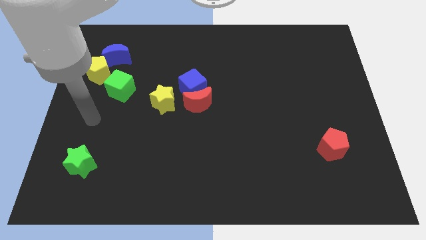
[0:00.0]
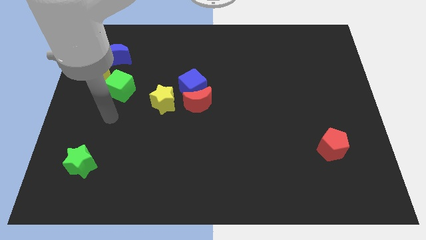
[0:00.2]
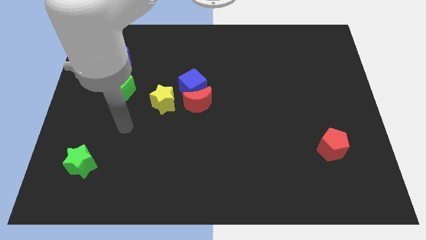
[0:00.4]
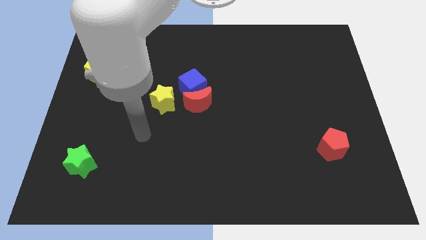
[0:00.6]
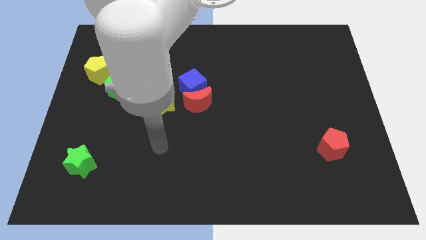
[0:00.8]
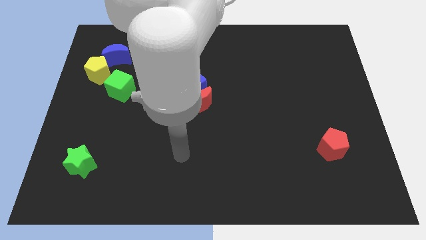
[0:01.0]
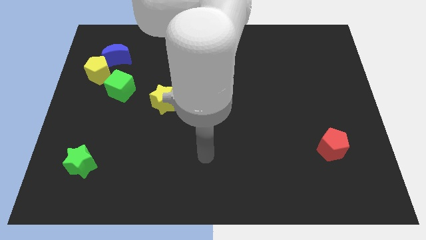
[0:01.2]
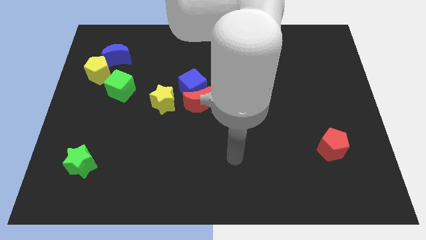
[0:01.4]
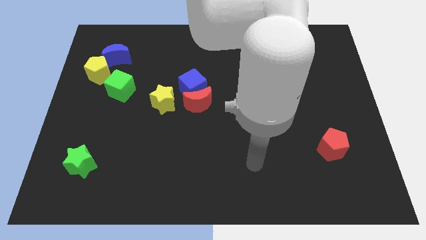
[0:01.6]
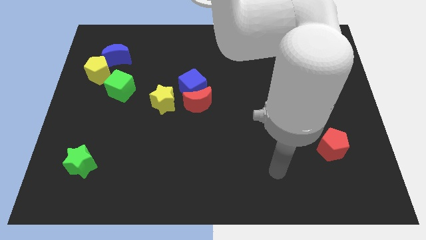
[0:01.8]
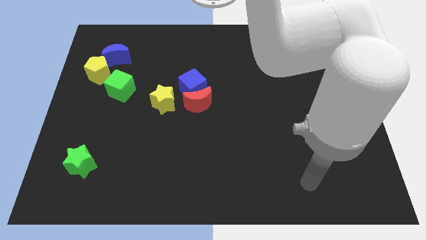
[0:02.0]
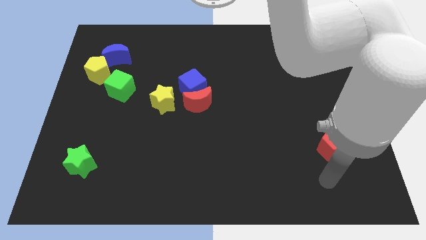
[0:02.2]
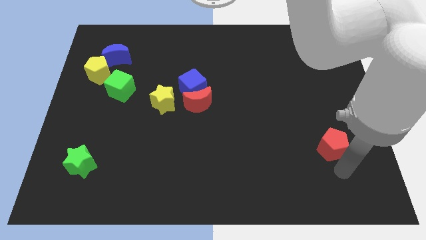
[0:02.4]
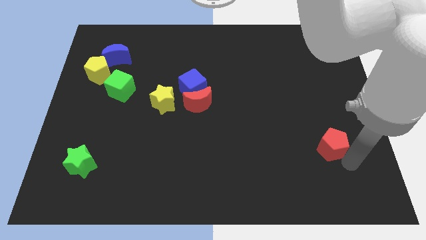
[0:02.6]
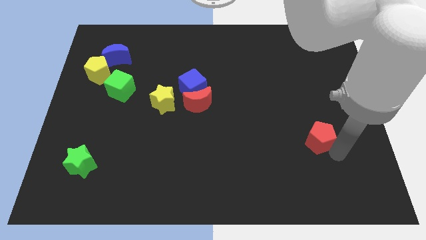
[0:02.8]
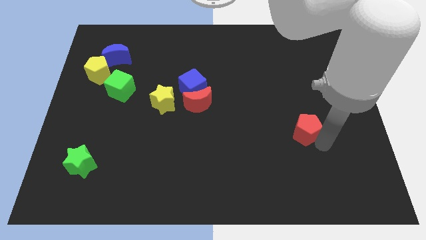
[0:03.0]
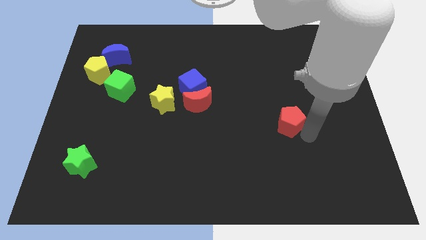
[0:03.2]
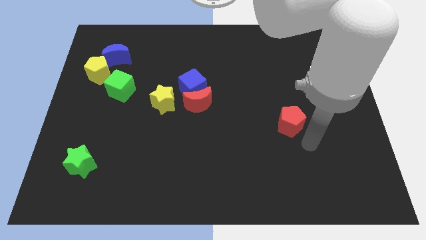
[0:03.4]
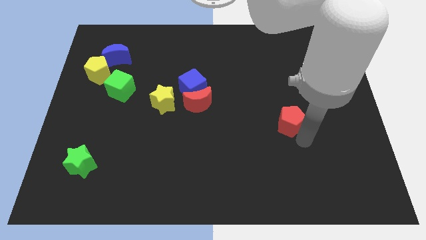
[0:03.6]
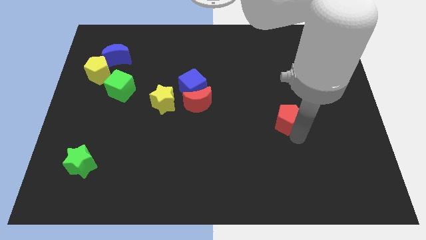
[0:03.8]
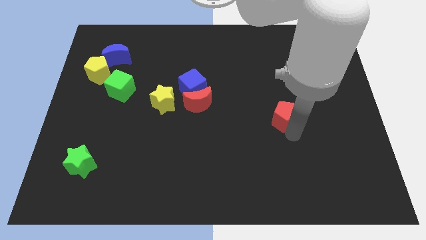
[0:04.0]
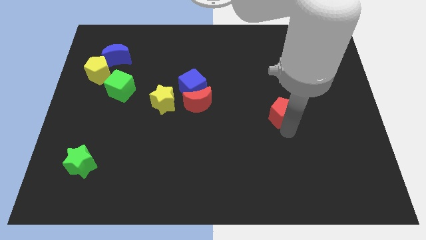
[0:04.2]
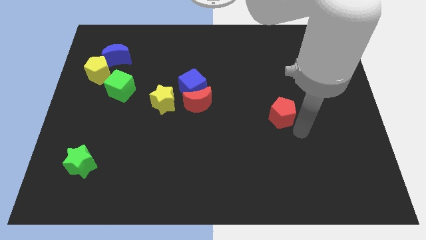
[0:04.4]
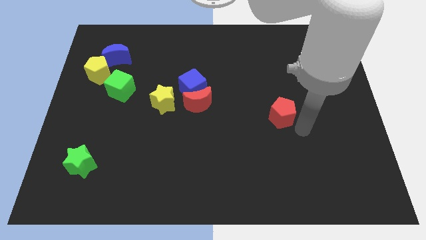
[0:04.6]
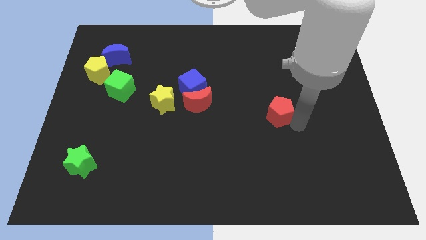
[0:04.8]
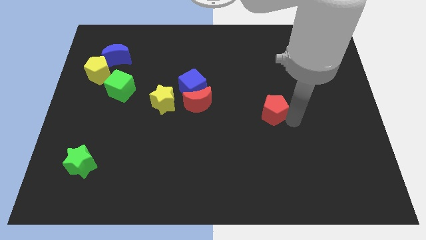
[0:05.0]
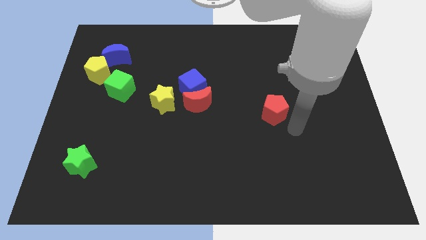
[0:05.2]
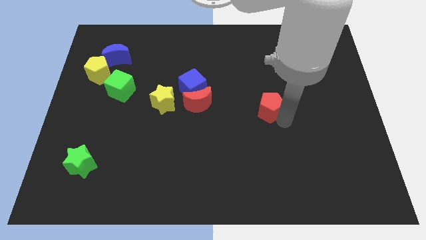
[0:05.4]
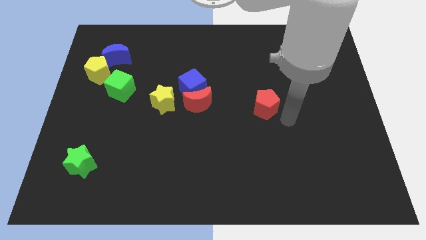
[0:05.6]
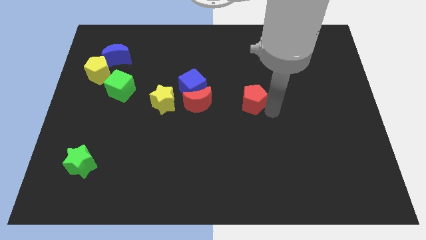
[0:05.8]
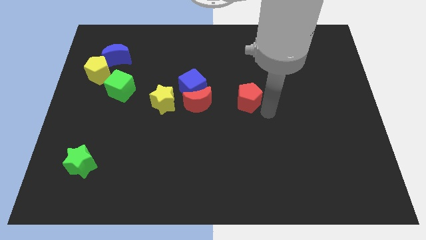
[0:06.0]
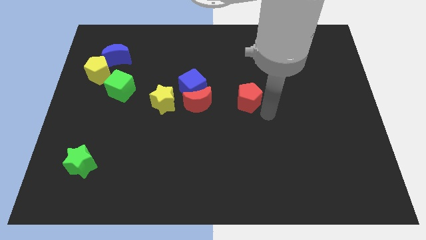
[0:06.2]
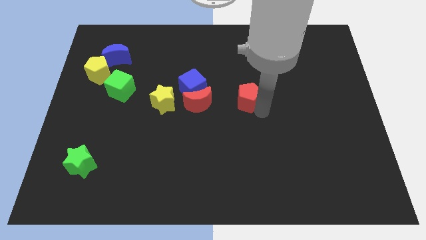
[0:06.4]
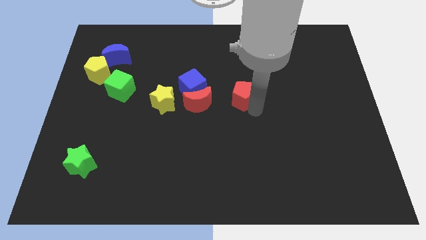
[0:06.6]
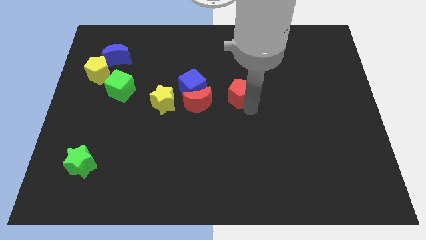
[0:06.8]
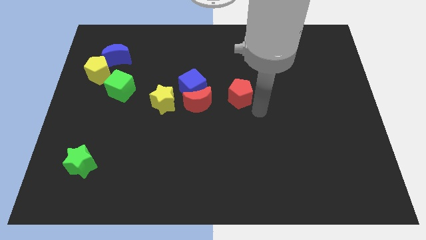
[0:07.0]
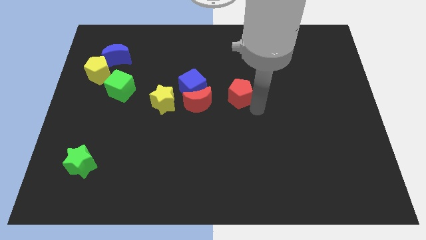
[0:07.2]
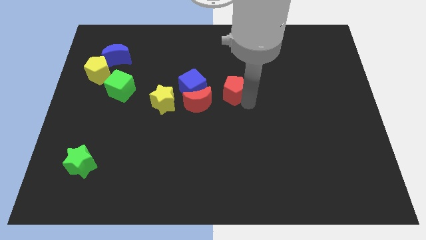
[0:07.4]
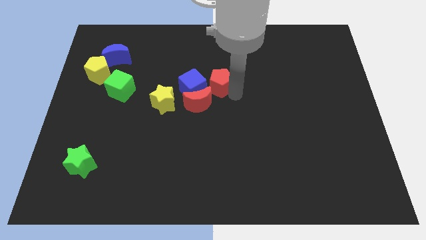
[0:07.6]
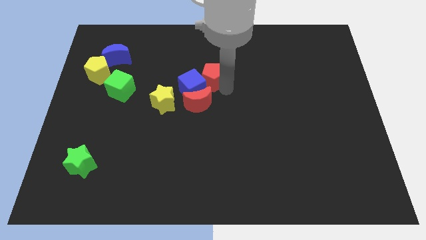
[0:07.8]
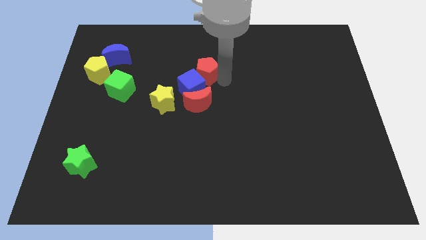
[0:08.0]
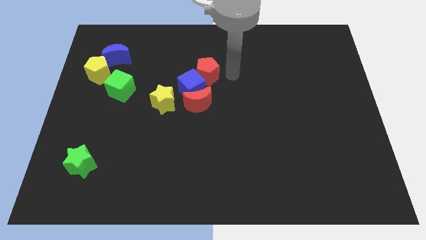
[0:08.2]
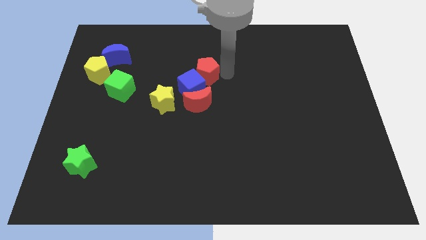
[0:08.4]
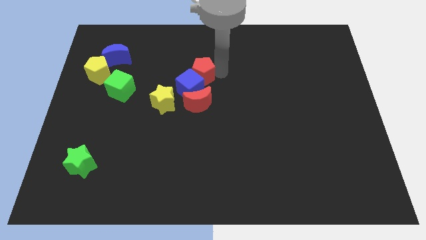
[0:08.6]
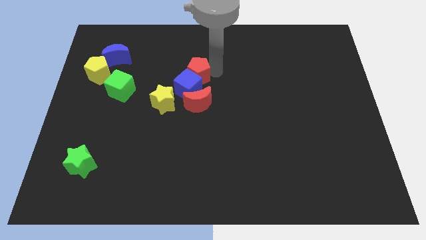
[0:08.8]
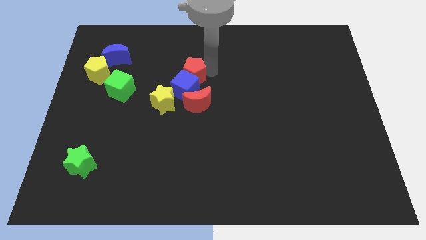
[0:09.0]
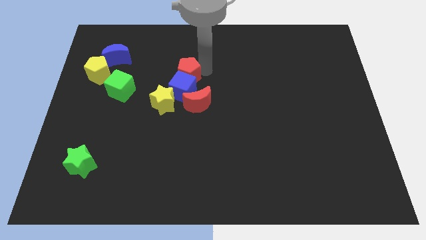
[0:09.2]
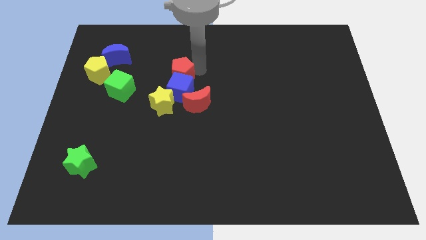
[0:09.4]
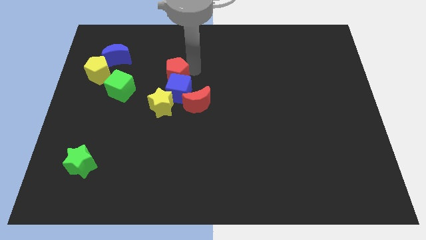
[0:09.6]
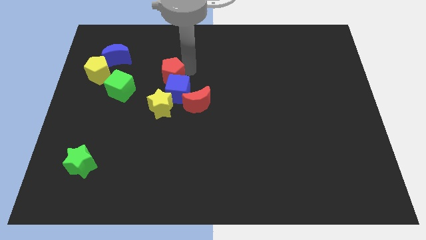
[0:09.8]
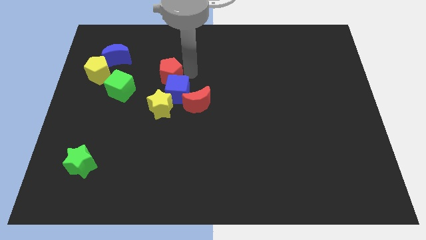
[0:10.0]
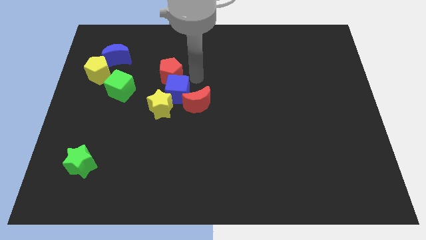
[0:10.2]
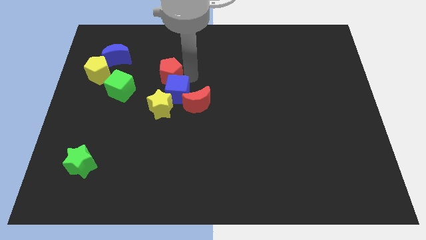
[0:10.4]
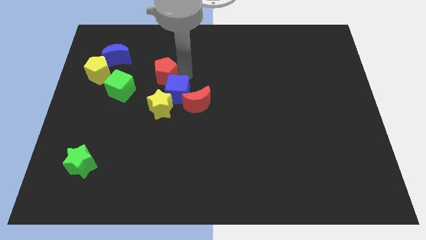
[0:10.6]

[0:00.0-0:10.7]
put the red pentagon to the top right of the green cube

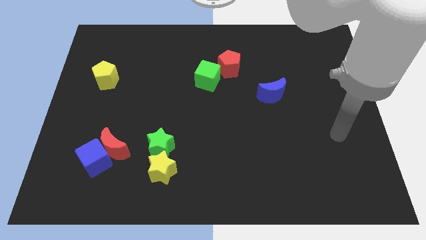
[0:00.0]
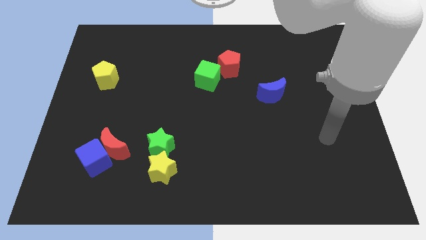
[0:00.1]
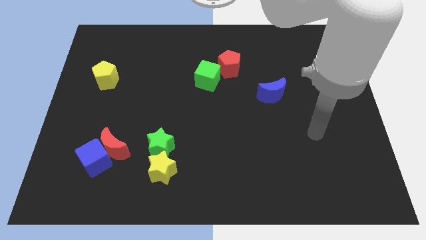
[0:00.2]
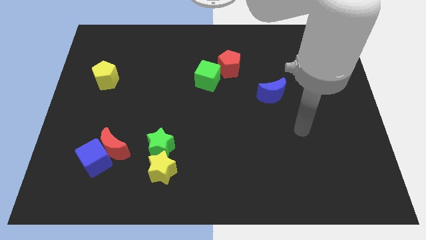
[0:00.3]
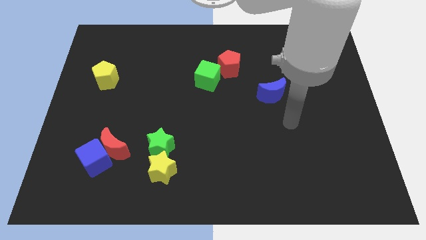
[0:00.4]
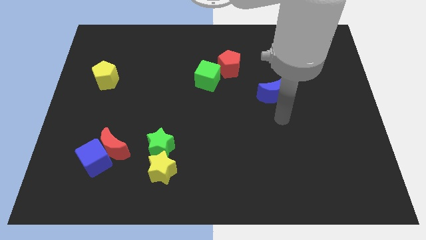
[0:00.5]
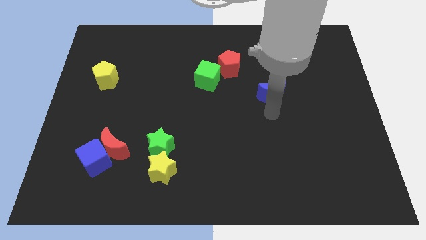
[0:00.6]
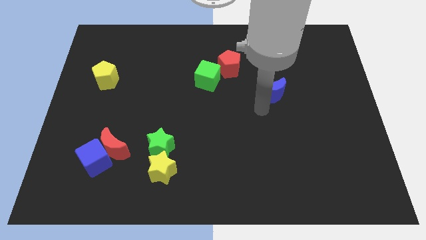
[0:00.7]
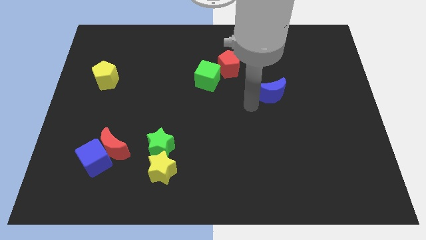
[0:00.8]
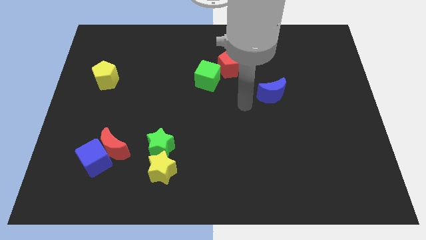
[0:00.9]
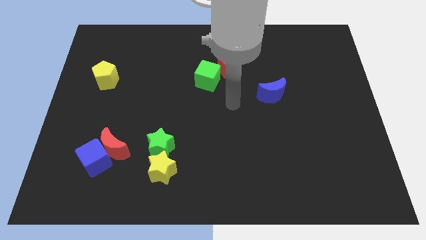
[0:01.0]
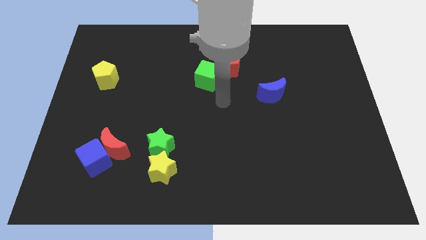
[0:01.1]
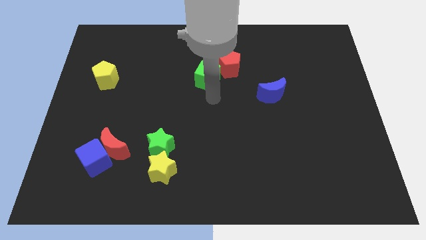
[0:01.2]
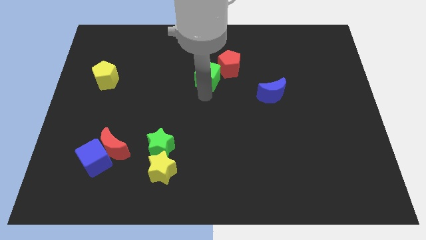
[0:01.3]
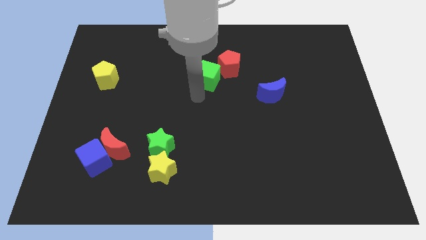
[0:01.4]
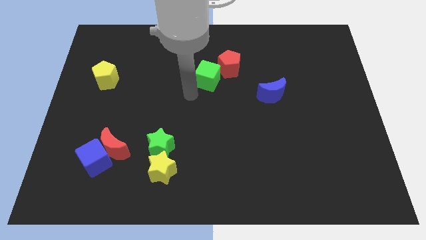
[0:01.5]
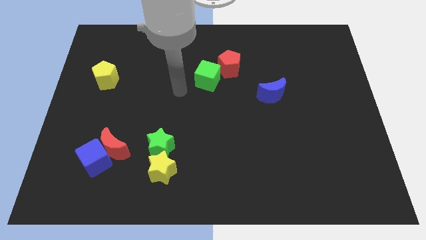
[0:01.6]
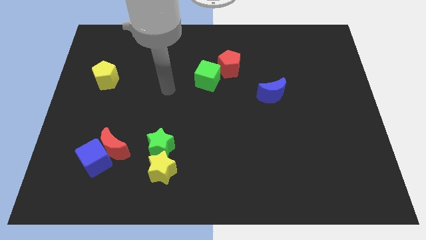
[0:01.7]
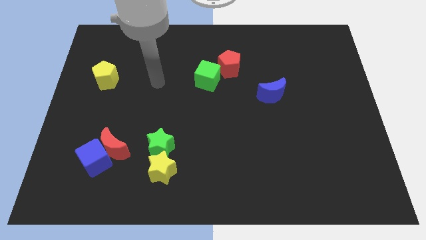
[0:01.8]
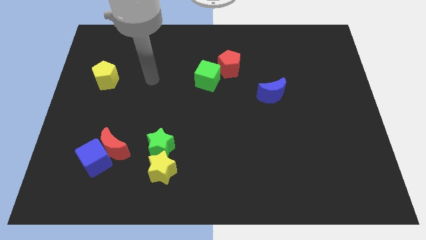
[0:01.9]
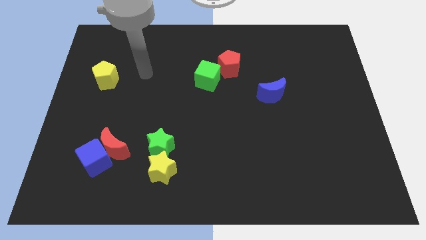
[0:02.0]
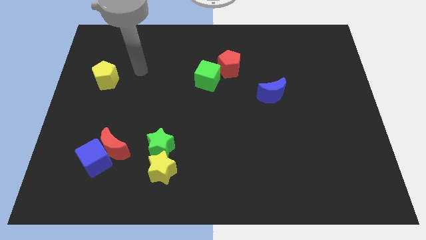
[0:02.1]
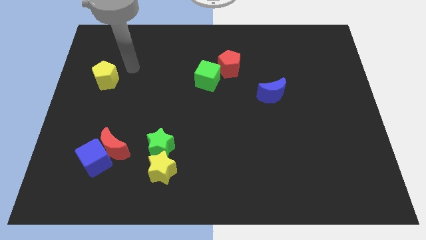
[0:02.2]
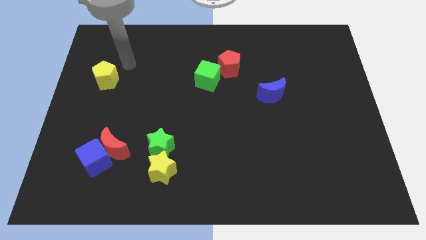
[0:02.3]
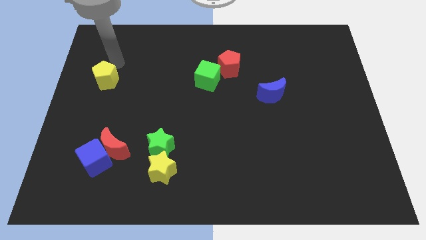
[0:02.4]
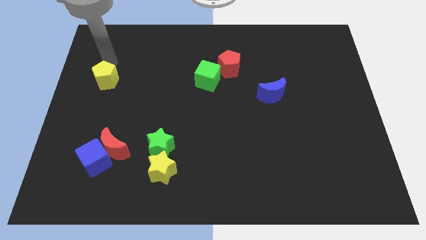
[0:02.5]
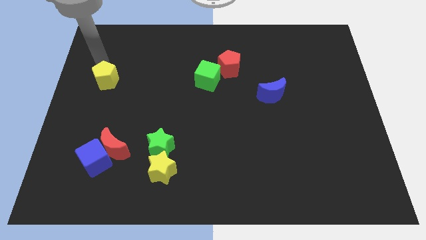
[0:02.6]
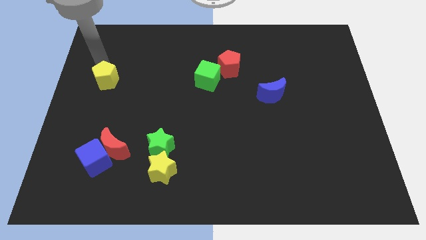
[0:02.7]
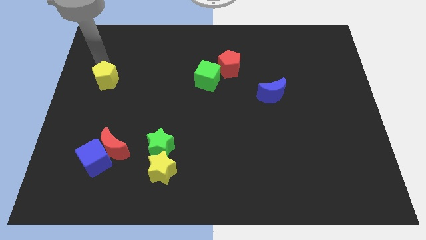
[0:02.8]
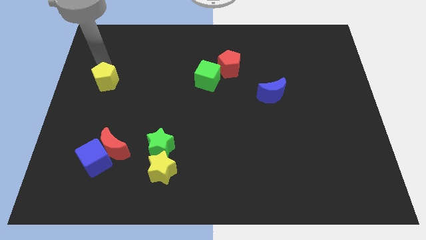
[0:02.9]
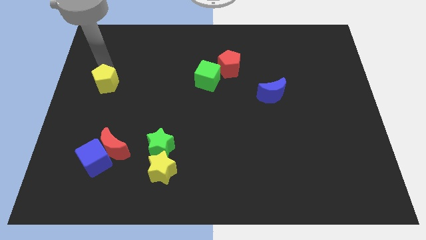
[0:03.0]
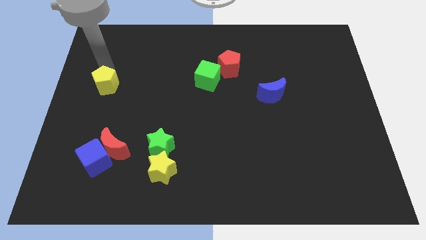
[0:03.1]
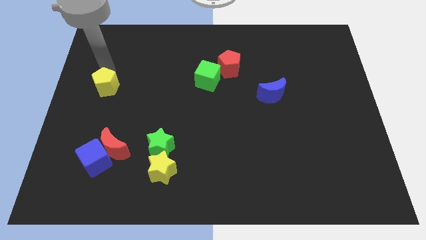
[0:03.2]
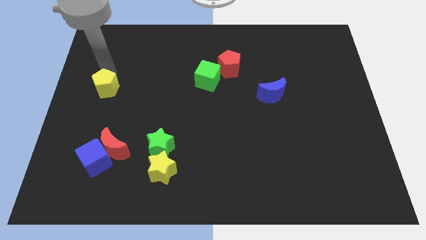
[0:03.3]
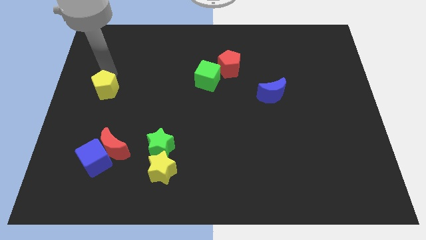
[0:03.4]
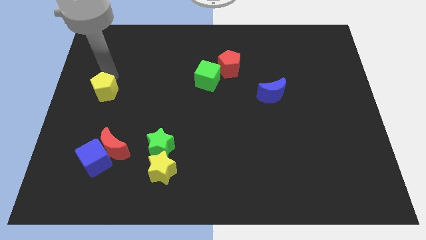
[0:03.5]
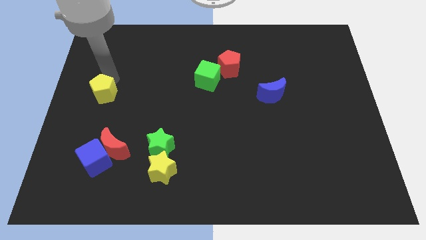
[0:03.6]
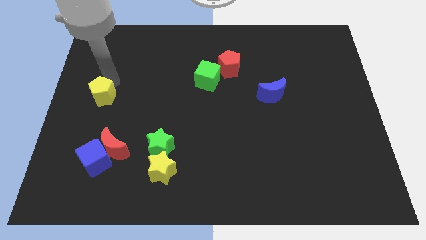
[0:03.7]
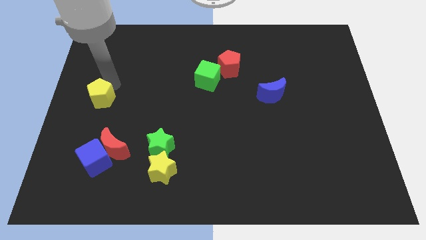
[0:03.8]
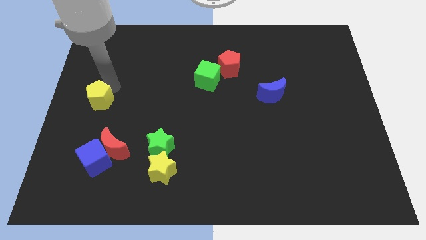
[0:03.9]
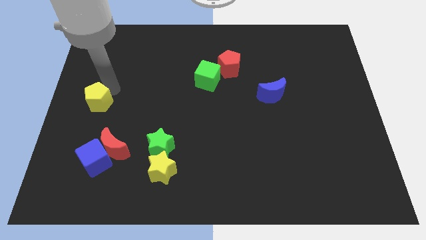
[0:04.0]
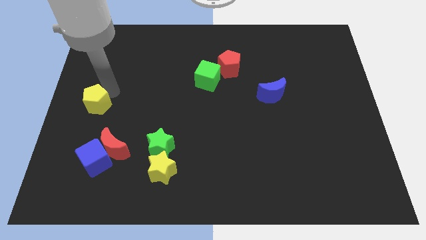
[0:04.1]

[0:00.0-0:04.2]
slide the yellow pentagon above the blue cube
